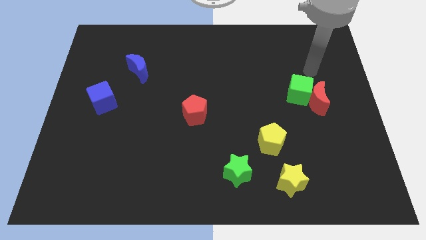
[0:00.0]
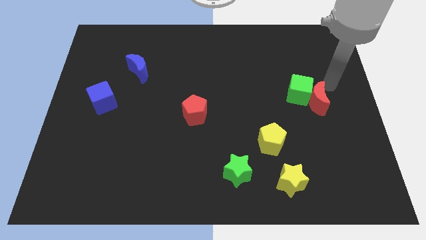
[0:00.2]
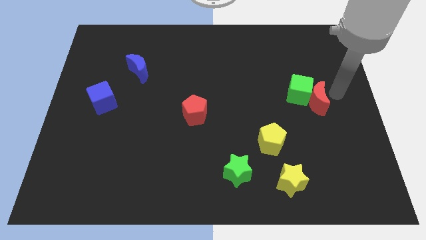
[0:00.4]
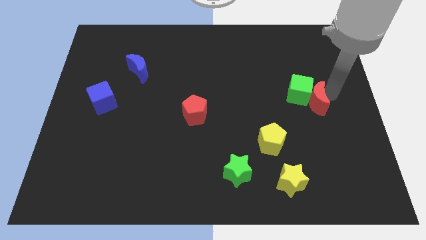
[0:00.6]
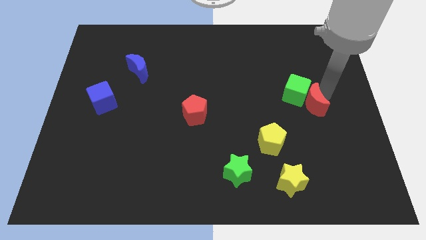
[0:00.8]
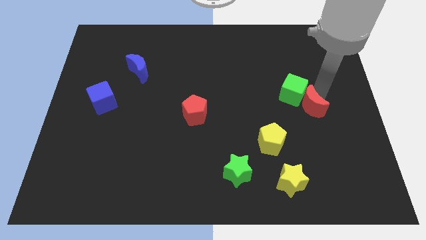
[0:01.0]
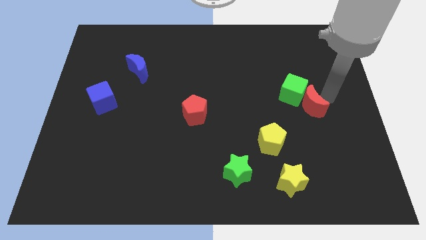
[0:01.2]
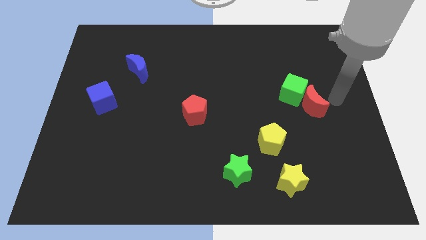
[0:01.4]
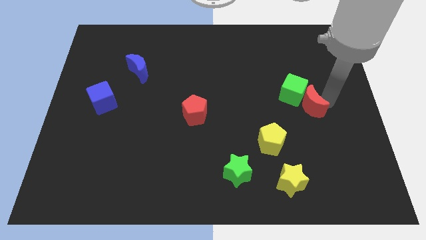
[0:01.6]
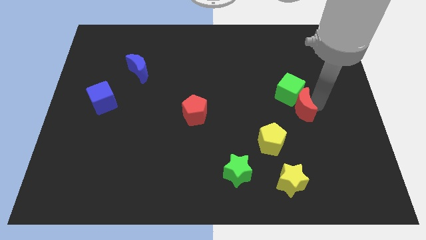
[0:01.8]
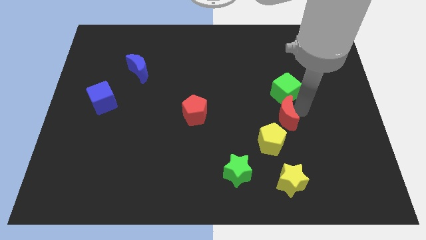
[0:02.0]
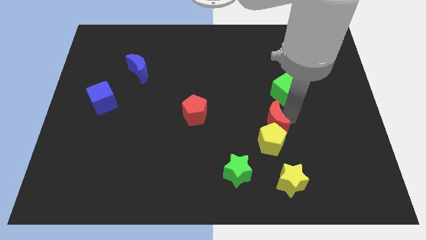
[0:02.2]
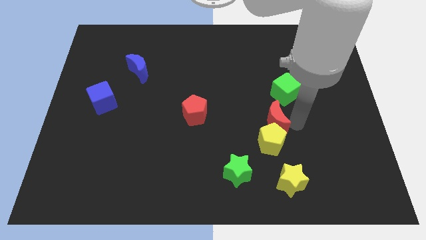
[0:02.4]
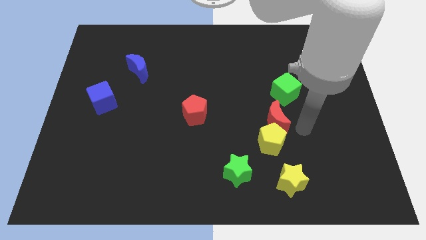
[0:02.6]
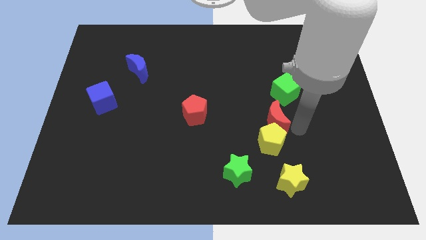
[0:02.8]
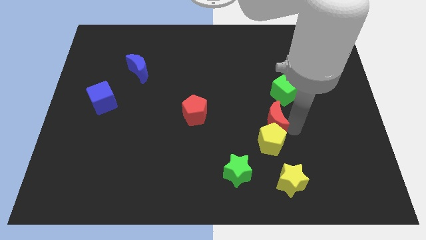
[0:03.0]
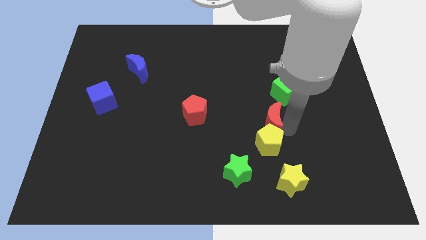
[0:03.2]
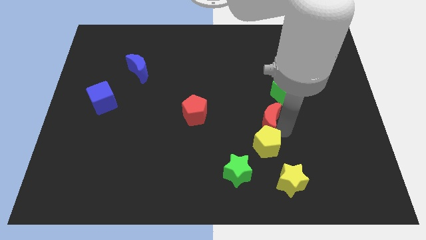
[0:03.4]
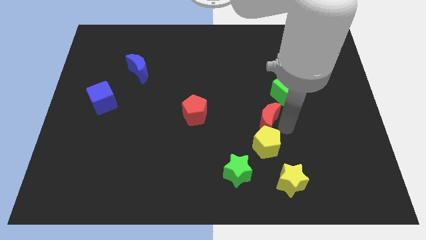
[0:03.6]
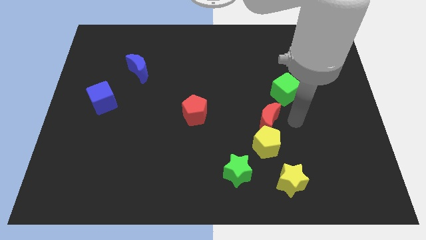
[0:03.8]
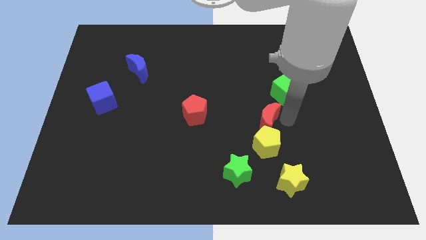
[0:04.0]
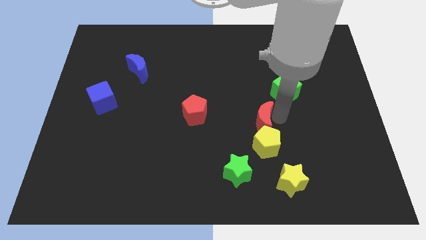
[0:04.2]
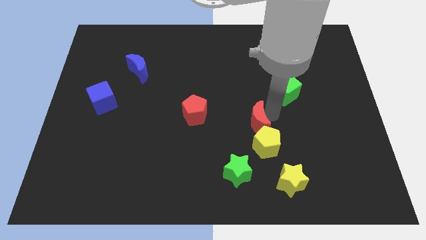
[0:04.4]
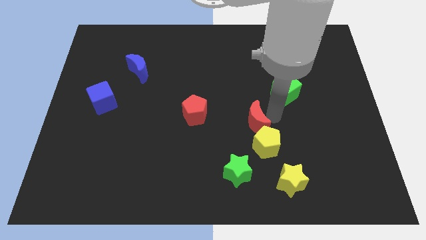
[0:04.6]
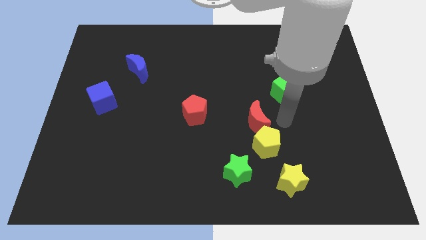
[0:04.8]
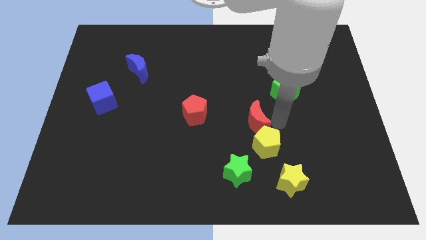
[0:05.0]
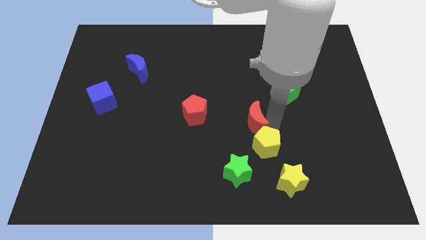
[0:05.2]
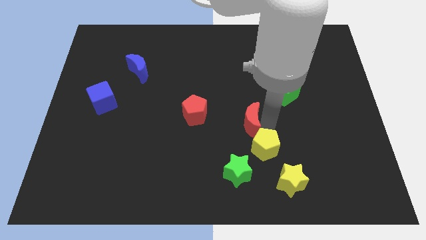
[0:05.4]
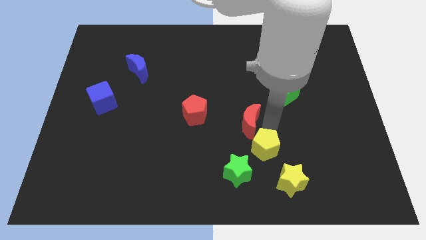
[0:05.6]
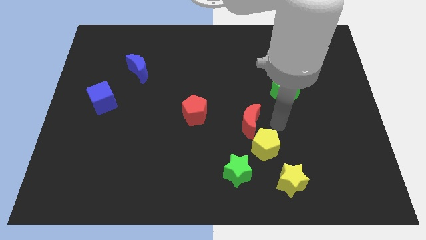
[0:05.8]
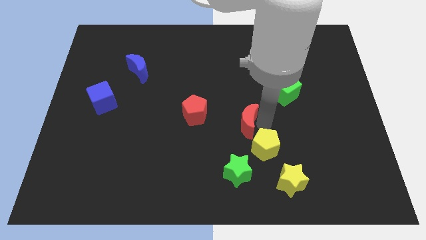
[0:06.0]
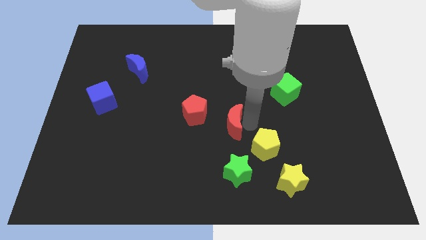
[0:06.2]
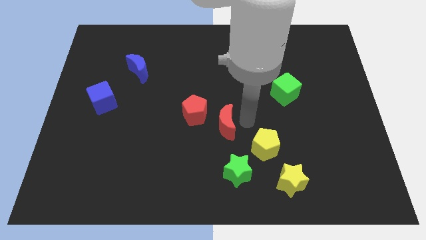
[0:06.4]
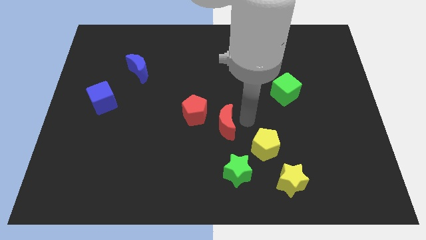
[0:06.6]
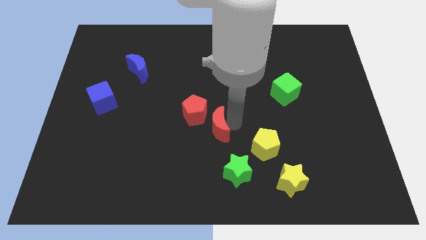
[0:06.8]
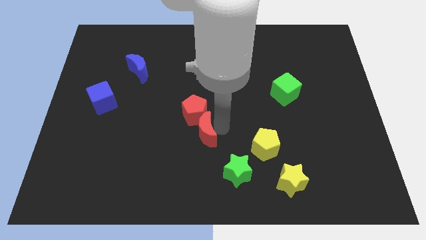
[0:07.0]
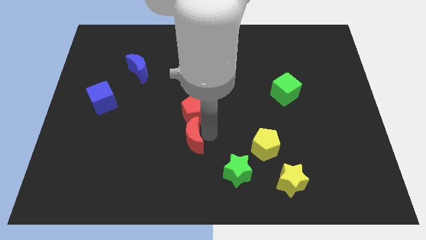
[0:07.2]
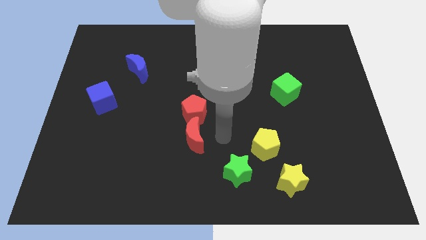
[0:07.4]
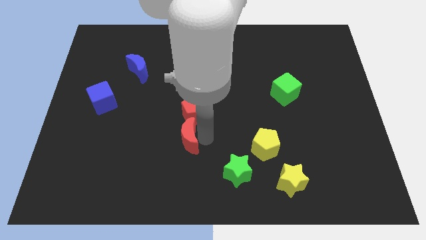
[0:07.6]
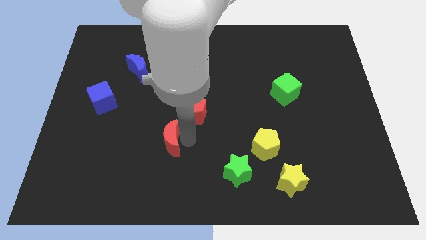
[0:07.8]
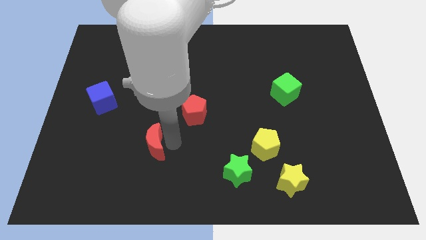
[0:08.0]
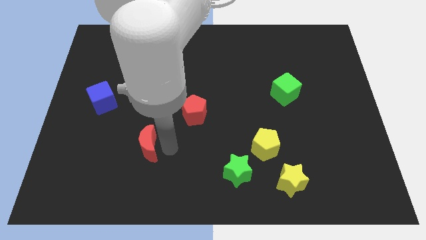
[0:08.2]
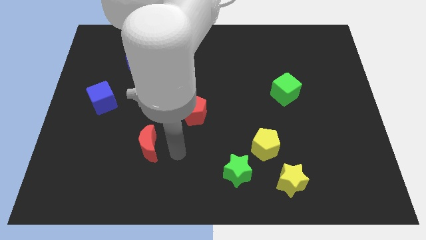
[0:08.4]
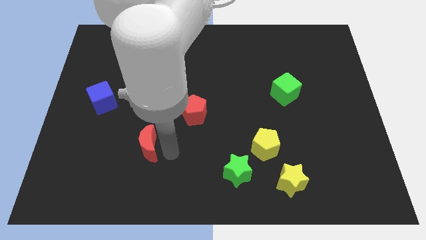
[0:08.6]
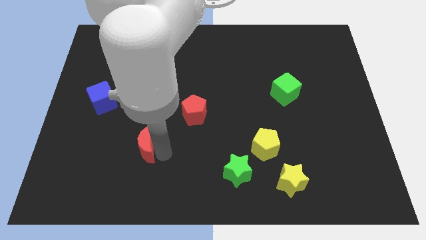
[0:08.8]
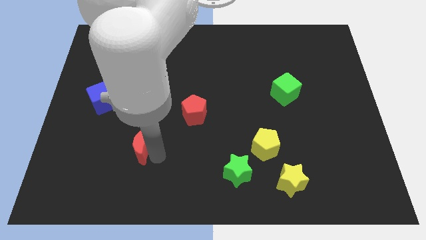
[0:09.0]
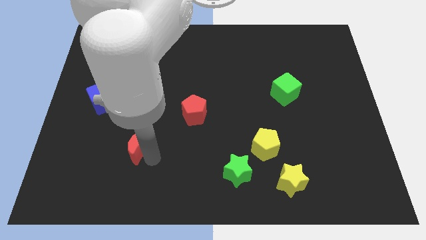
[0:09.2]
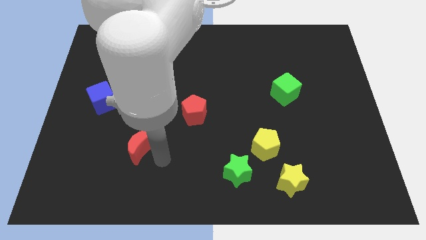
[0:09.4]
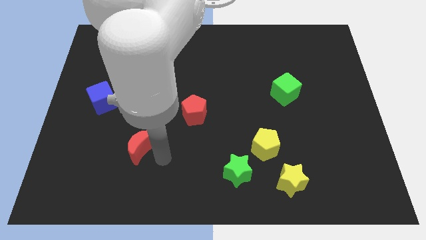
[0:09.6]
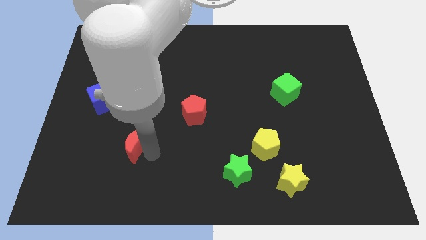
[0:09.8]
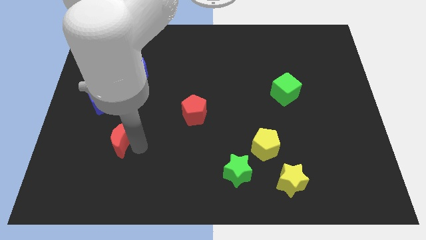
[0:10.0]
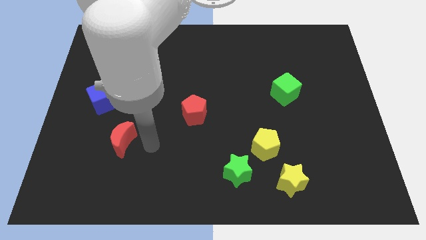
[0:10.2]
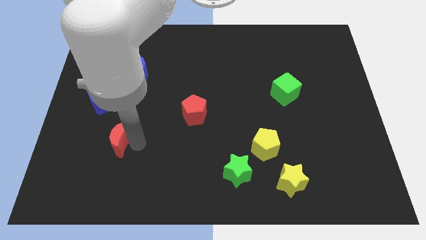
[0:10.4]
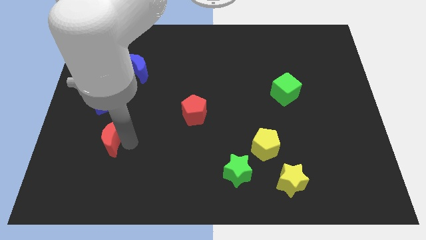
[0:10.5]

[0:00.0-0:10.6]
slide the red moon to the bottom side of the blue cube

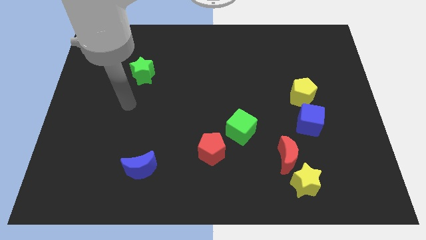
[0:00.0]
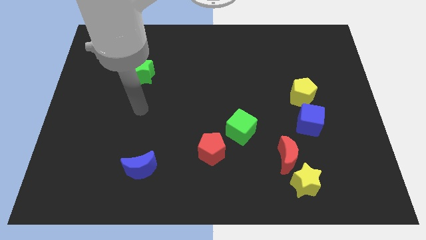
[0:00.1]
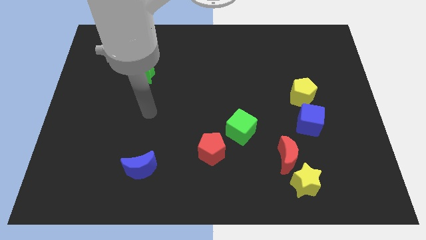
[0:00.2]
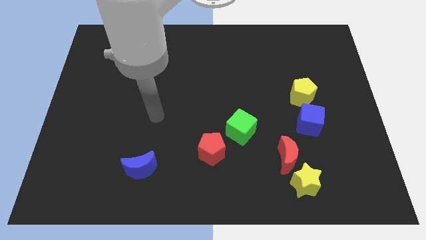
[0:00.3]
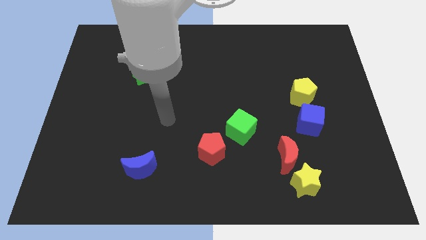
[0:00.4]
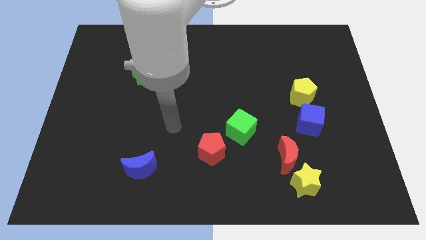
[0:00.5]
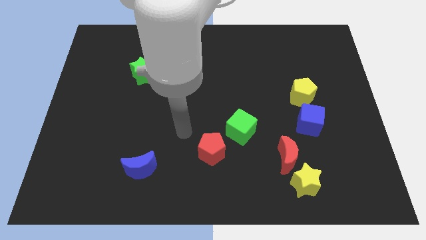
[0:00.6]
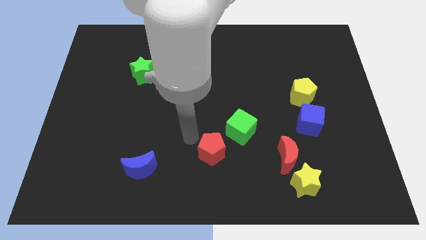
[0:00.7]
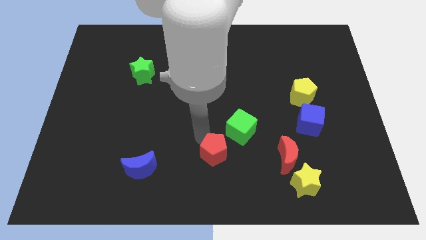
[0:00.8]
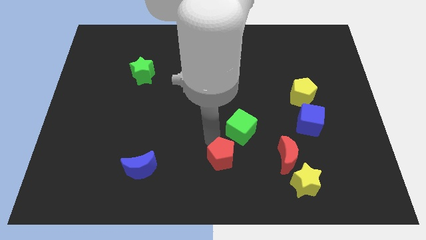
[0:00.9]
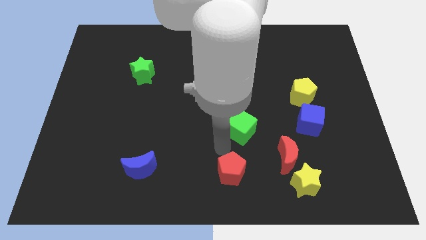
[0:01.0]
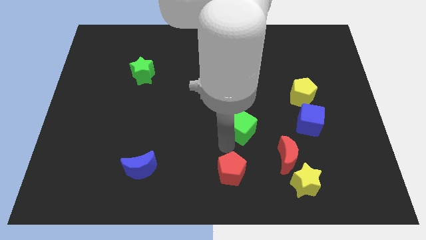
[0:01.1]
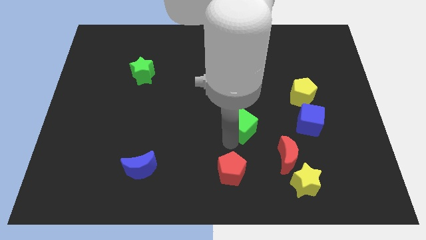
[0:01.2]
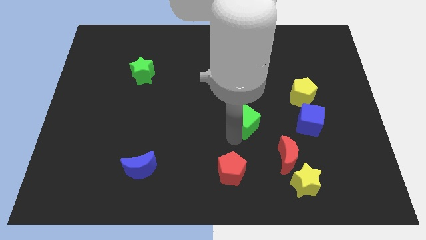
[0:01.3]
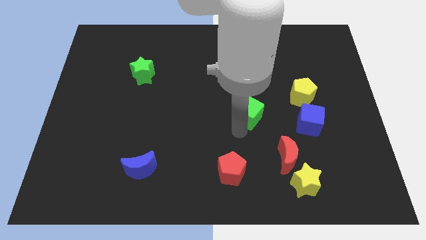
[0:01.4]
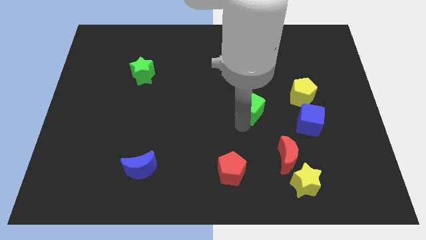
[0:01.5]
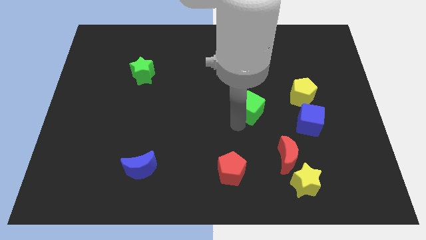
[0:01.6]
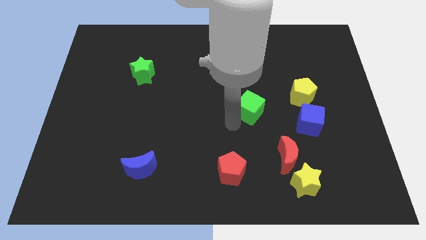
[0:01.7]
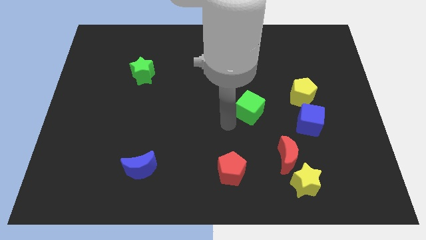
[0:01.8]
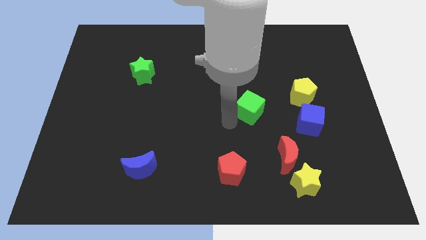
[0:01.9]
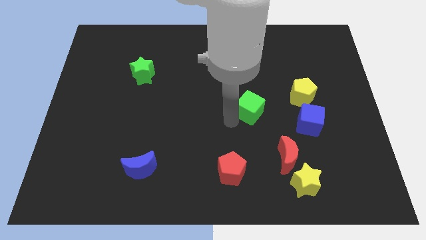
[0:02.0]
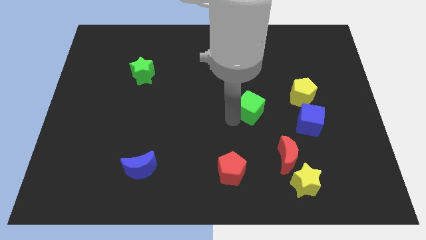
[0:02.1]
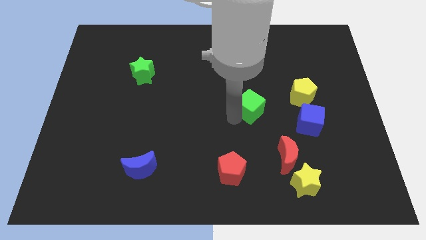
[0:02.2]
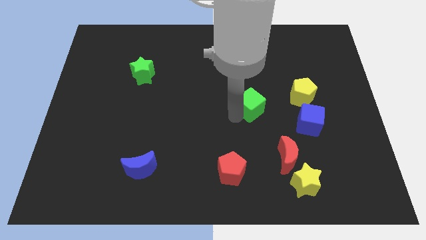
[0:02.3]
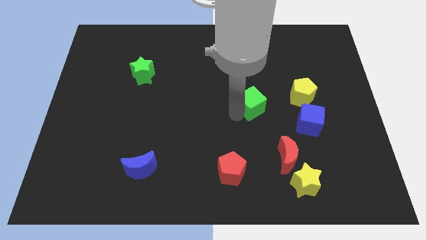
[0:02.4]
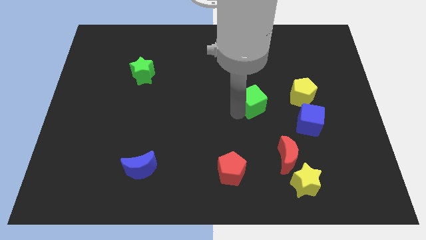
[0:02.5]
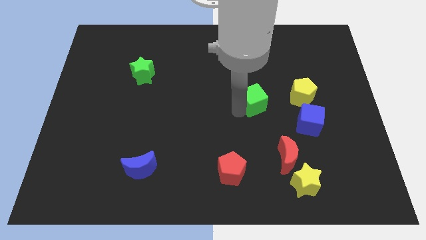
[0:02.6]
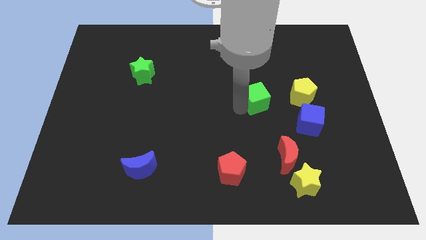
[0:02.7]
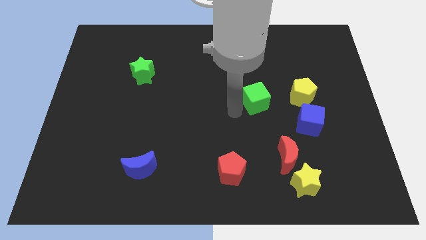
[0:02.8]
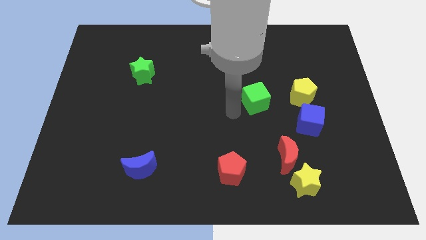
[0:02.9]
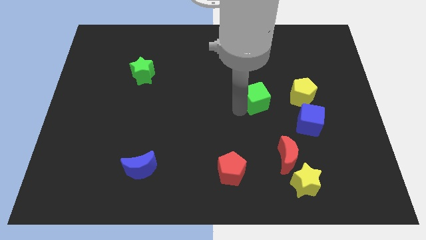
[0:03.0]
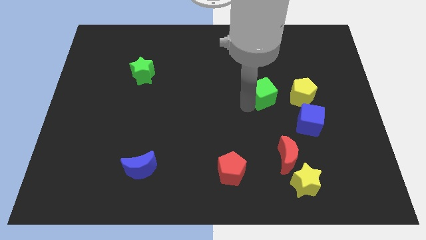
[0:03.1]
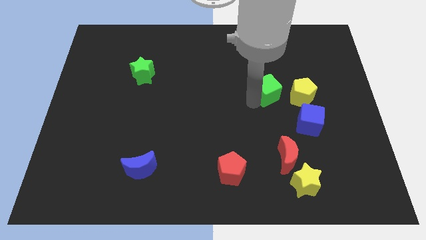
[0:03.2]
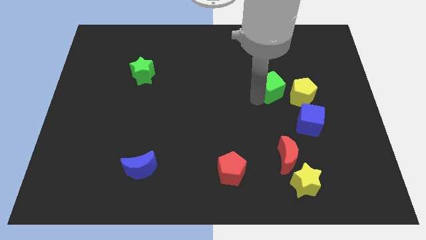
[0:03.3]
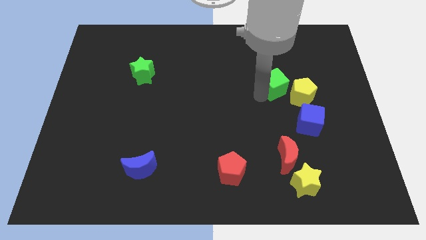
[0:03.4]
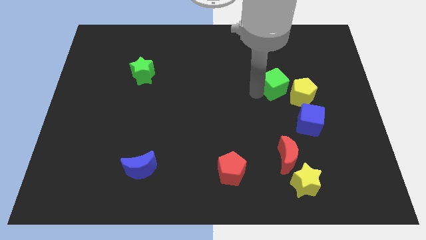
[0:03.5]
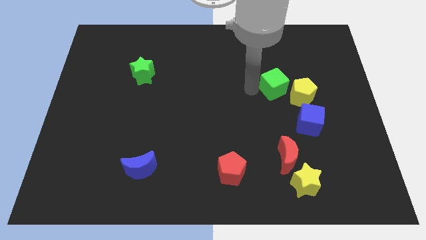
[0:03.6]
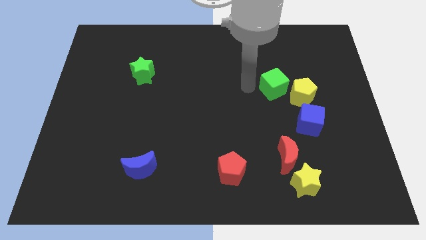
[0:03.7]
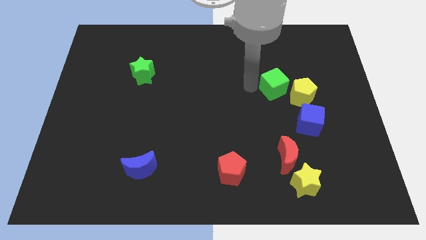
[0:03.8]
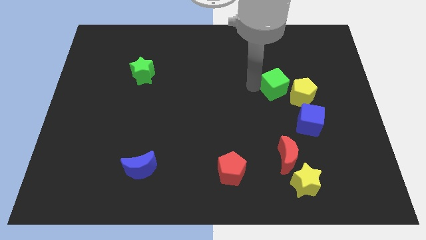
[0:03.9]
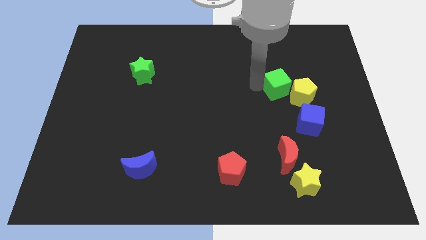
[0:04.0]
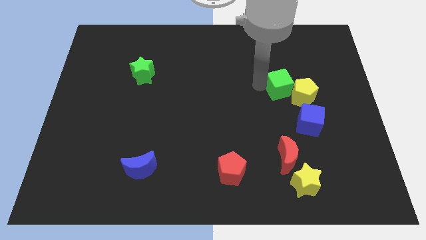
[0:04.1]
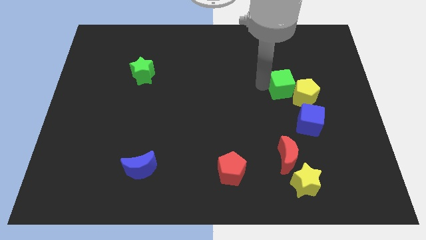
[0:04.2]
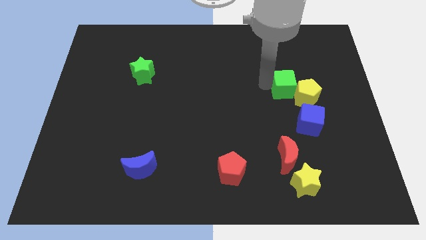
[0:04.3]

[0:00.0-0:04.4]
move the green cube to the top of the blue cube
